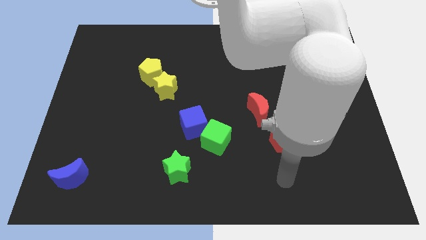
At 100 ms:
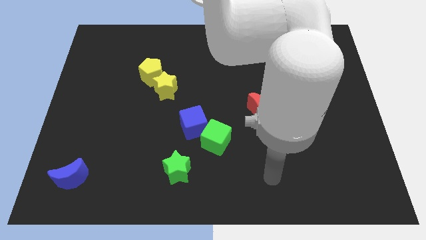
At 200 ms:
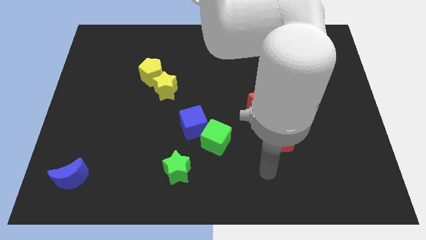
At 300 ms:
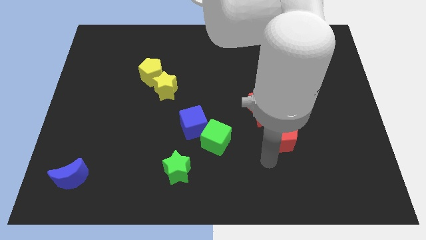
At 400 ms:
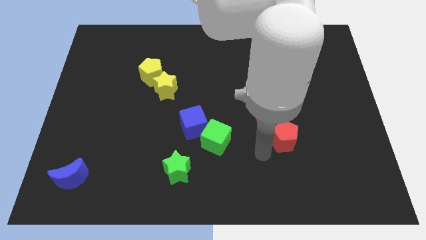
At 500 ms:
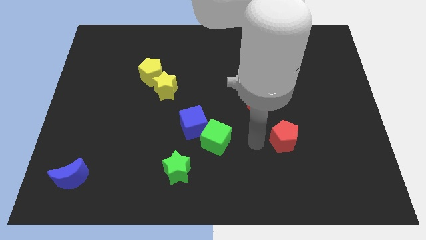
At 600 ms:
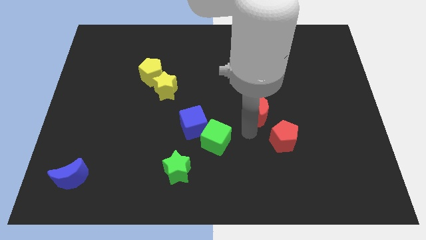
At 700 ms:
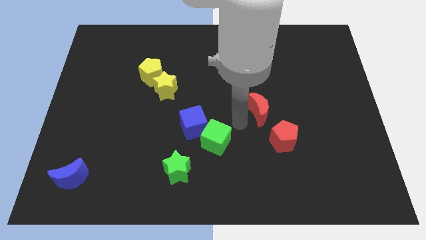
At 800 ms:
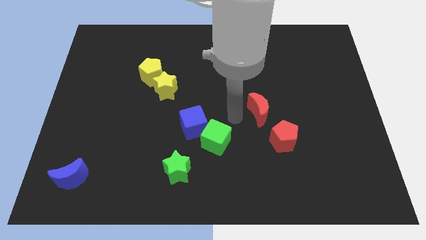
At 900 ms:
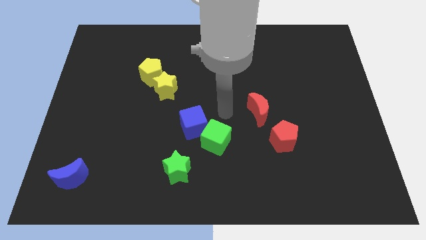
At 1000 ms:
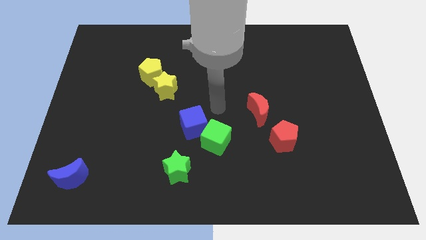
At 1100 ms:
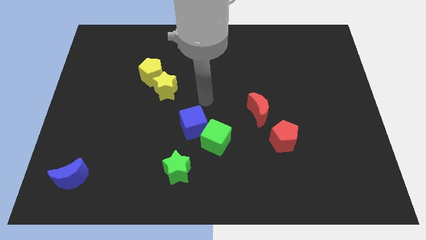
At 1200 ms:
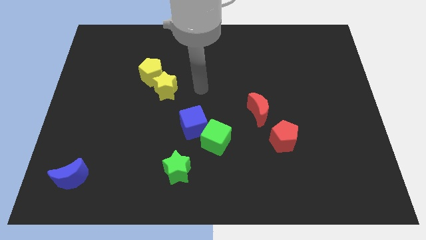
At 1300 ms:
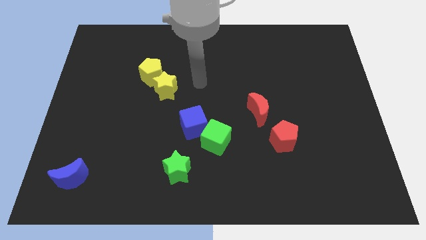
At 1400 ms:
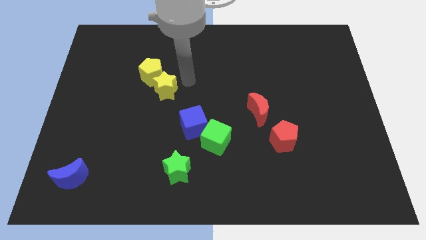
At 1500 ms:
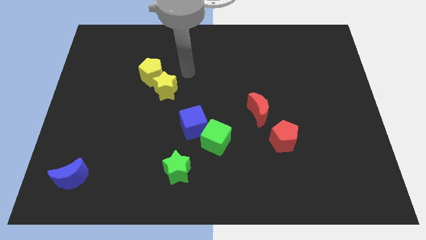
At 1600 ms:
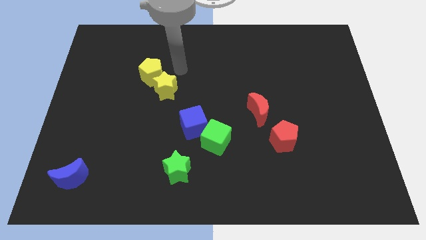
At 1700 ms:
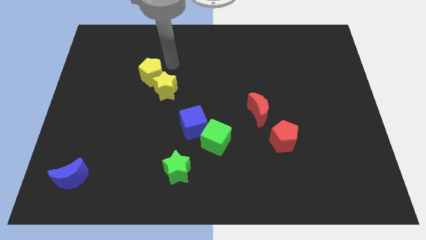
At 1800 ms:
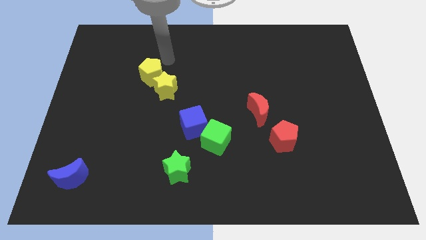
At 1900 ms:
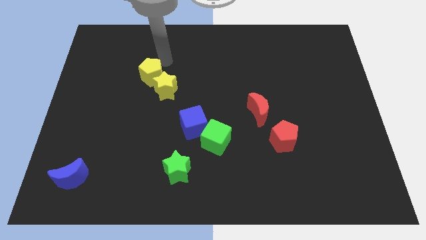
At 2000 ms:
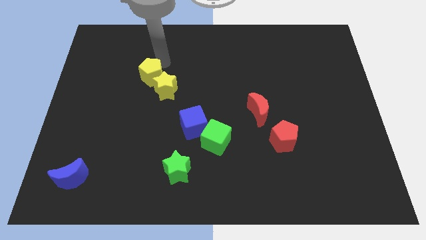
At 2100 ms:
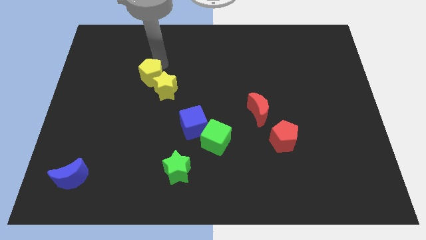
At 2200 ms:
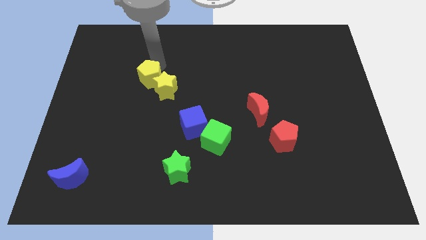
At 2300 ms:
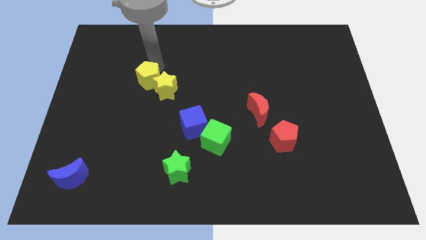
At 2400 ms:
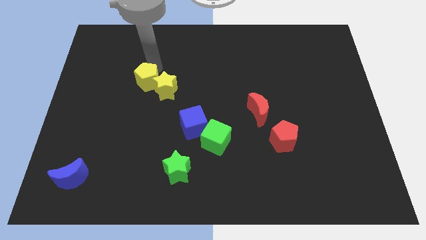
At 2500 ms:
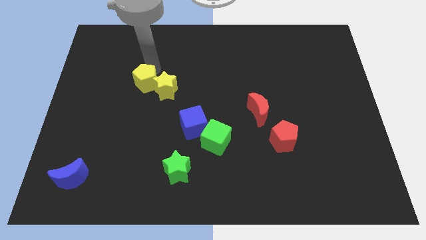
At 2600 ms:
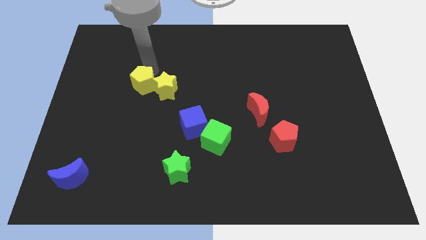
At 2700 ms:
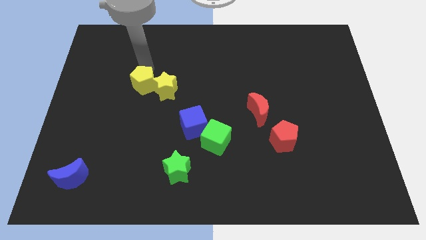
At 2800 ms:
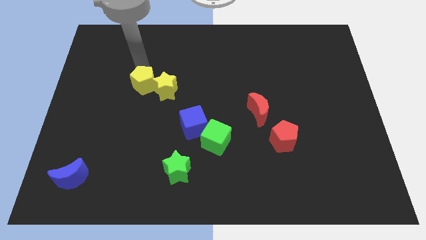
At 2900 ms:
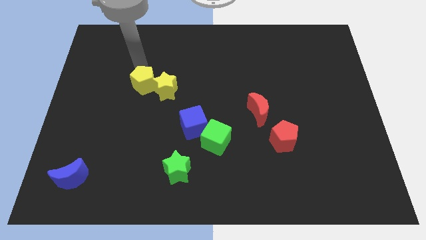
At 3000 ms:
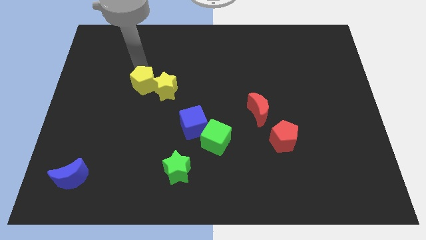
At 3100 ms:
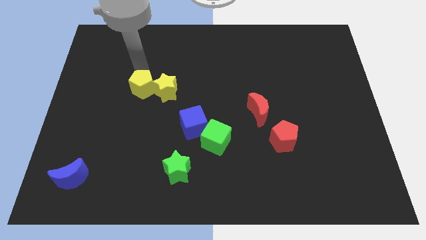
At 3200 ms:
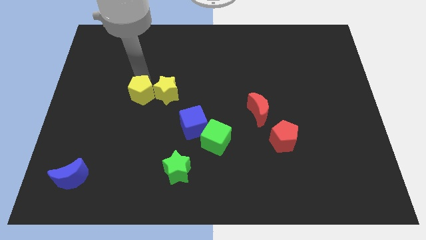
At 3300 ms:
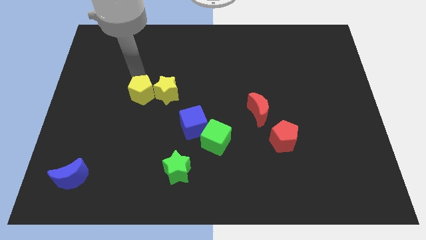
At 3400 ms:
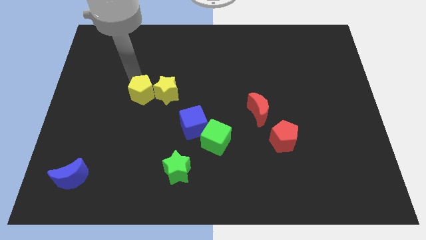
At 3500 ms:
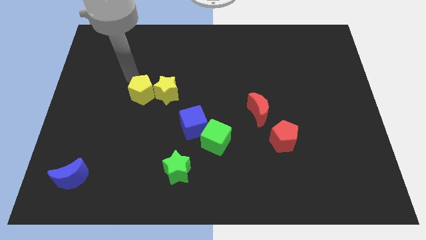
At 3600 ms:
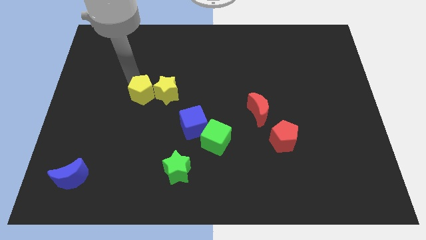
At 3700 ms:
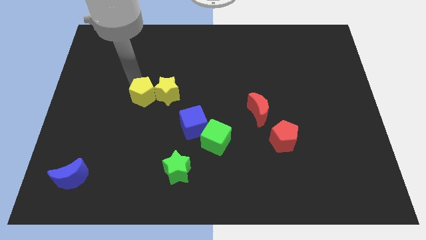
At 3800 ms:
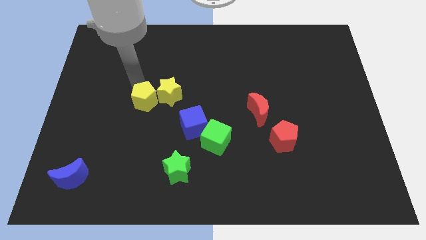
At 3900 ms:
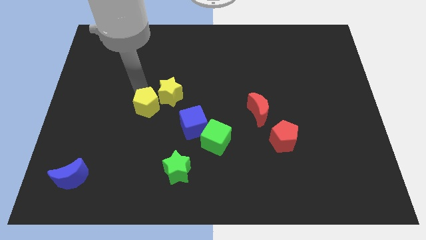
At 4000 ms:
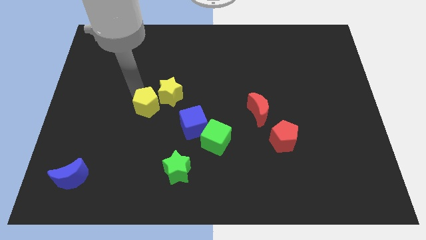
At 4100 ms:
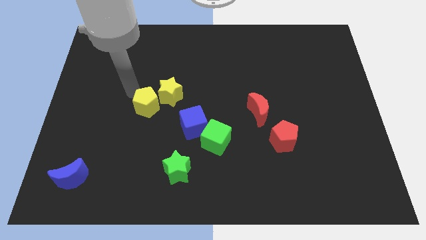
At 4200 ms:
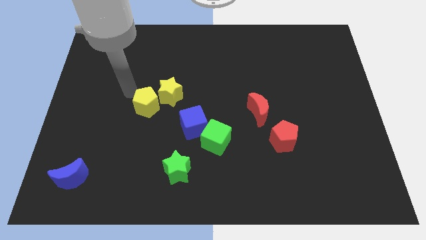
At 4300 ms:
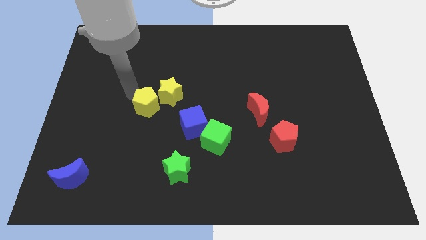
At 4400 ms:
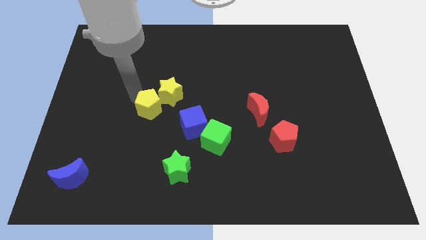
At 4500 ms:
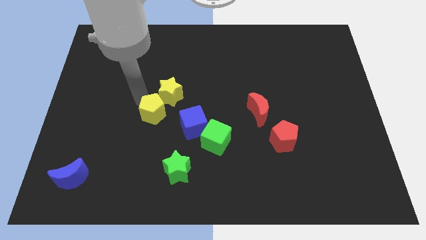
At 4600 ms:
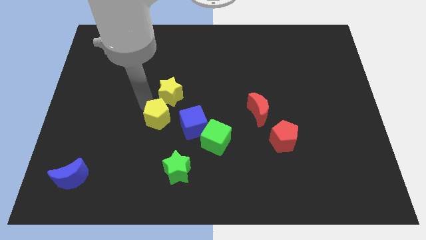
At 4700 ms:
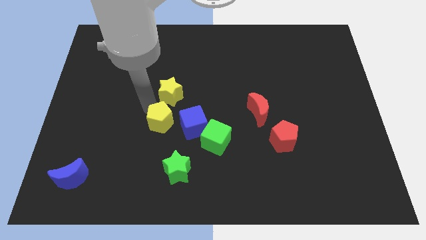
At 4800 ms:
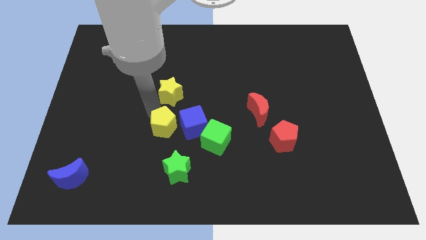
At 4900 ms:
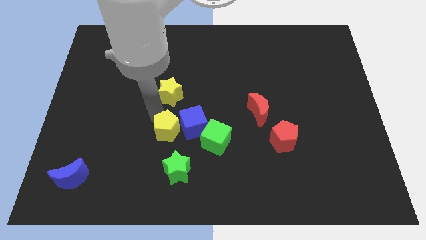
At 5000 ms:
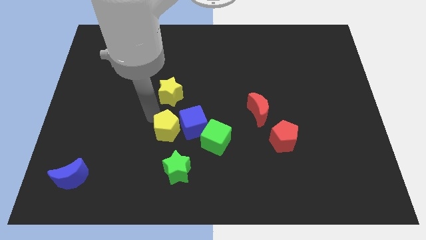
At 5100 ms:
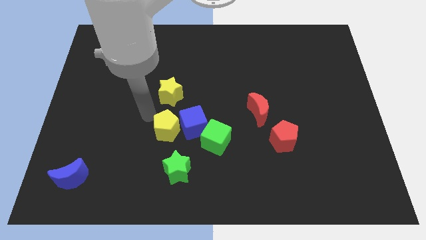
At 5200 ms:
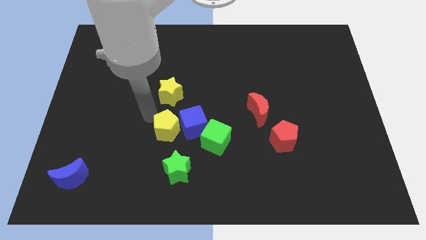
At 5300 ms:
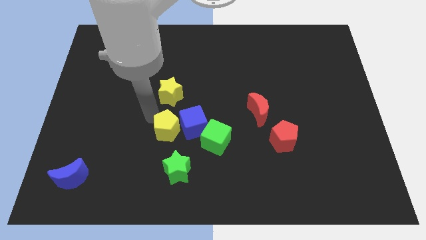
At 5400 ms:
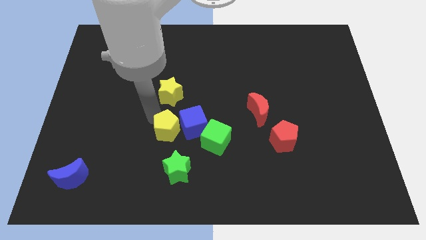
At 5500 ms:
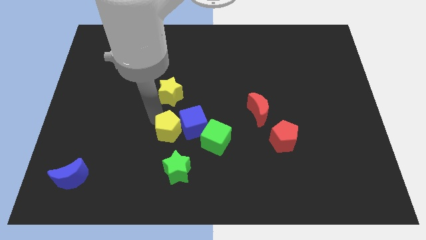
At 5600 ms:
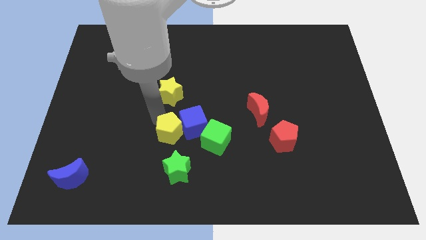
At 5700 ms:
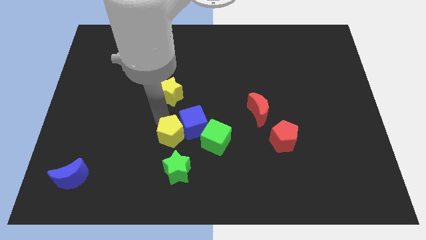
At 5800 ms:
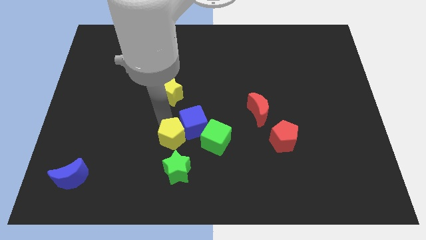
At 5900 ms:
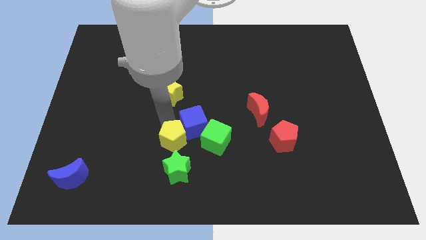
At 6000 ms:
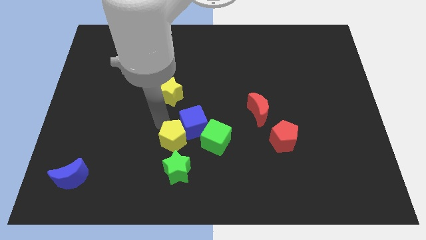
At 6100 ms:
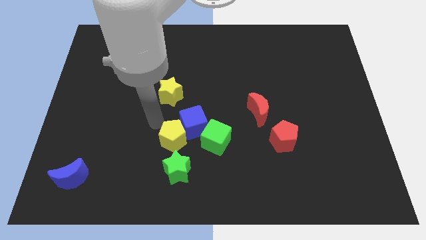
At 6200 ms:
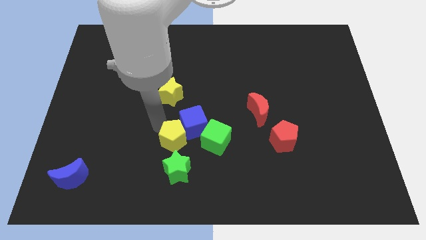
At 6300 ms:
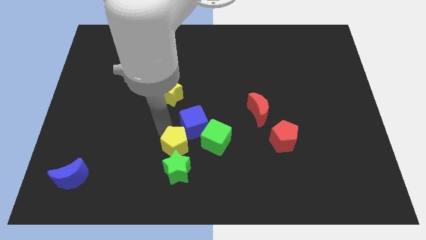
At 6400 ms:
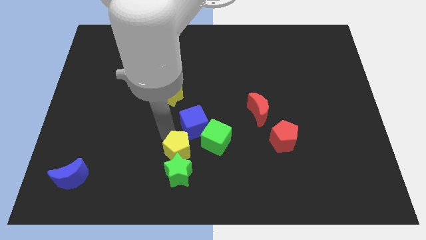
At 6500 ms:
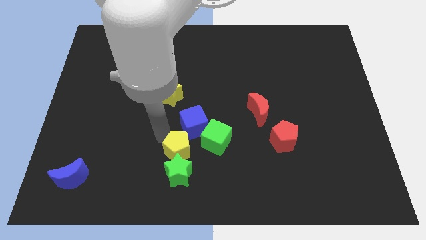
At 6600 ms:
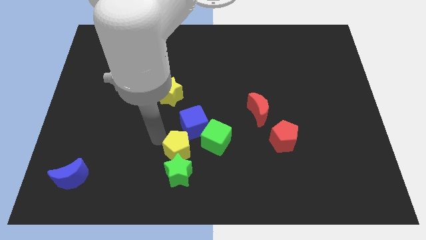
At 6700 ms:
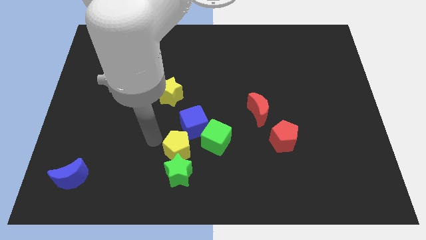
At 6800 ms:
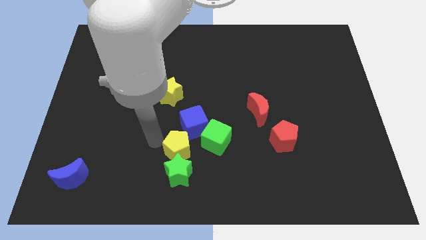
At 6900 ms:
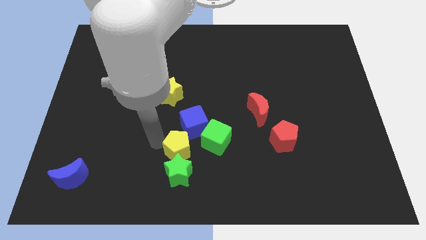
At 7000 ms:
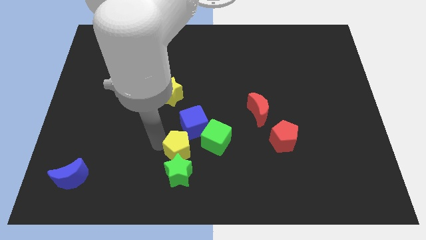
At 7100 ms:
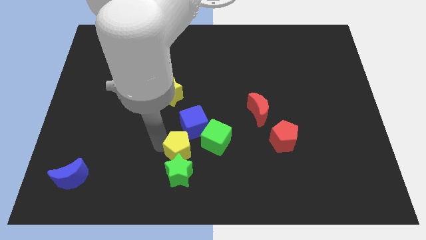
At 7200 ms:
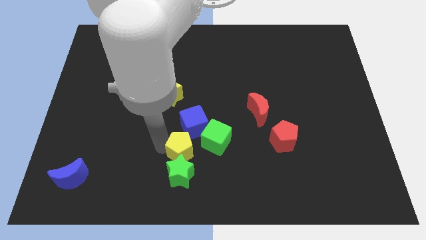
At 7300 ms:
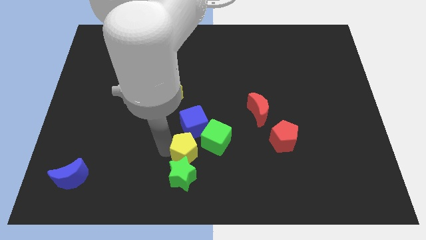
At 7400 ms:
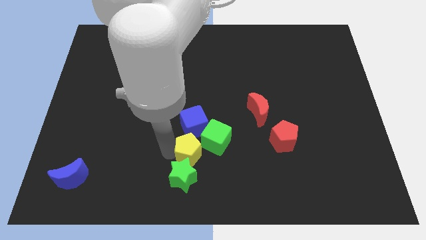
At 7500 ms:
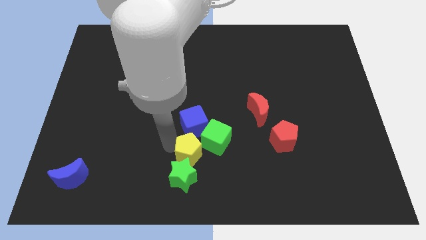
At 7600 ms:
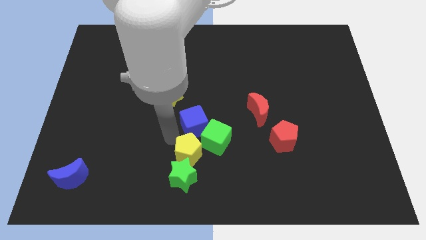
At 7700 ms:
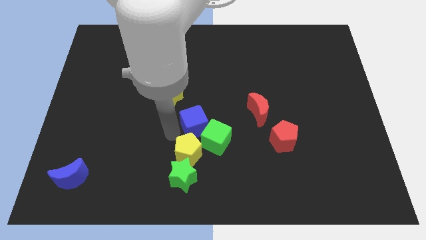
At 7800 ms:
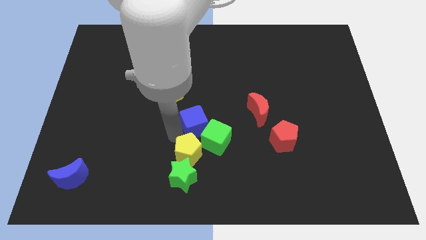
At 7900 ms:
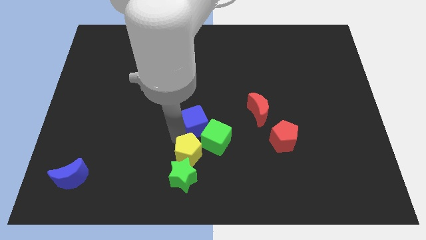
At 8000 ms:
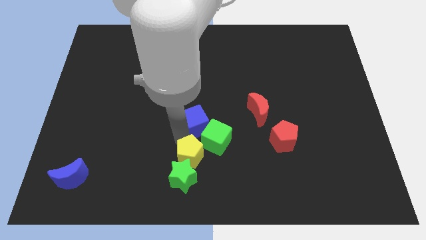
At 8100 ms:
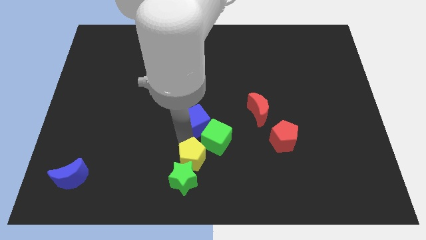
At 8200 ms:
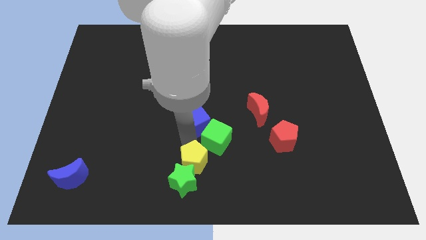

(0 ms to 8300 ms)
slide the yellow pentagon to the bottom of the green cube
